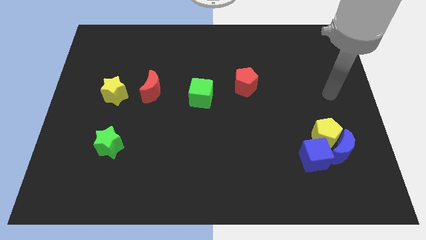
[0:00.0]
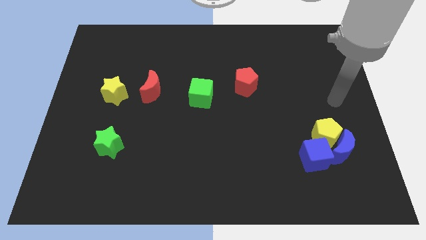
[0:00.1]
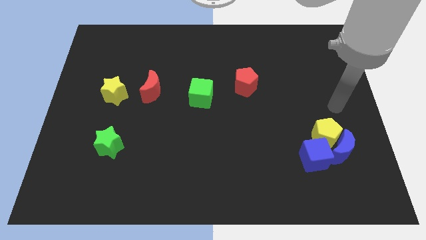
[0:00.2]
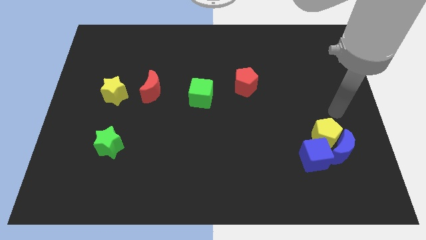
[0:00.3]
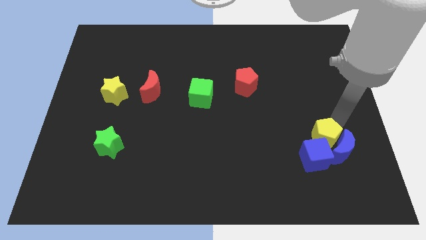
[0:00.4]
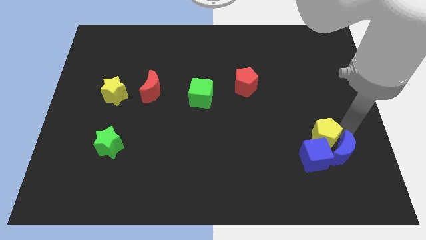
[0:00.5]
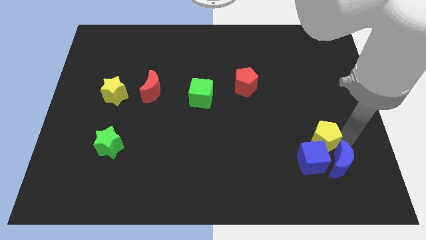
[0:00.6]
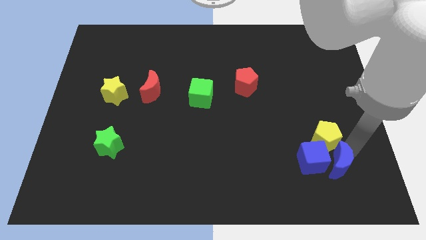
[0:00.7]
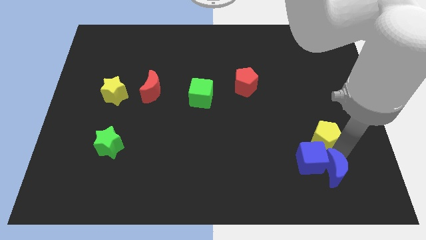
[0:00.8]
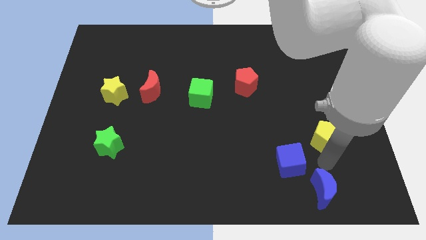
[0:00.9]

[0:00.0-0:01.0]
separate the yellow pentagon from the blue moon and blue cube

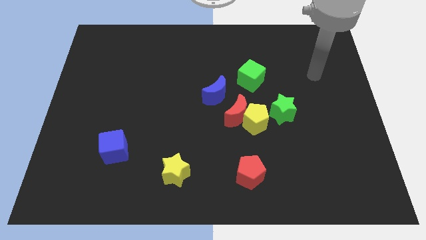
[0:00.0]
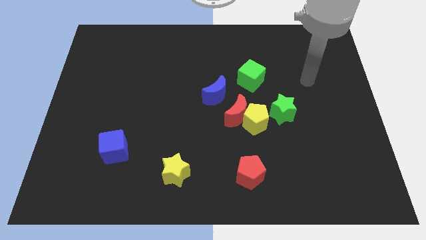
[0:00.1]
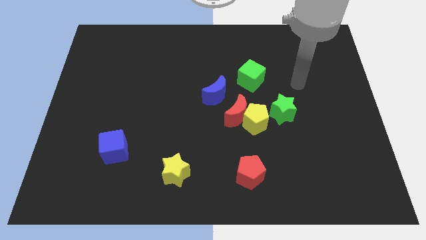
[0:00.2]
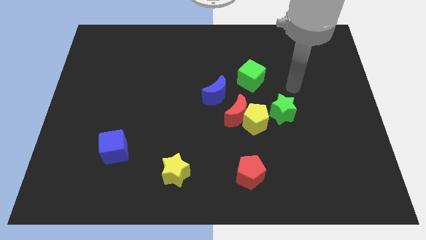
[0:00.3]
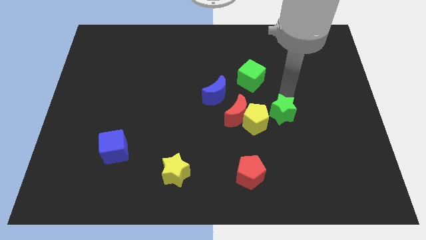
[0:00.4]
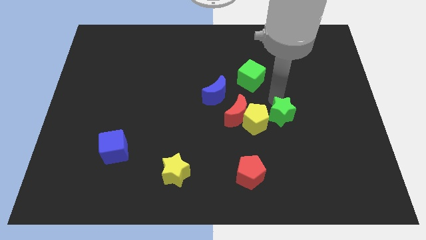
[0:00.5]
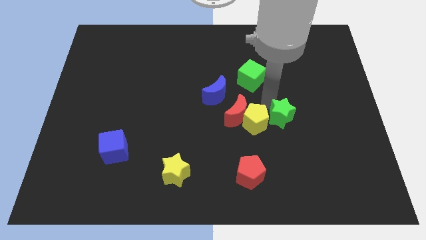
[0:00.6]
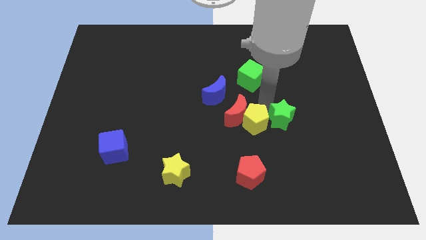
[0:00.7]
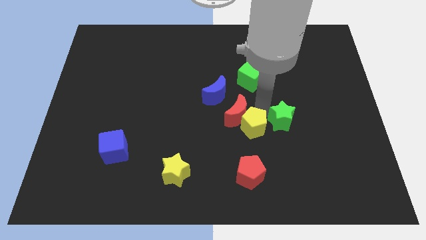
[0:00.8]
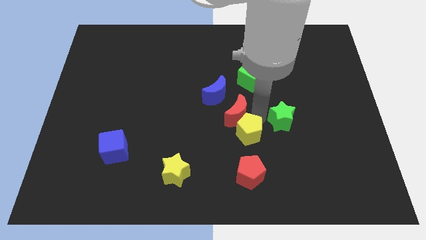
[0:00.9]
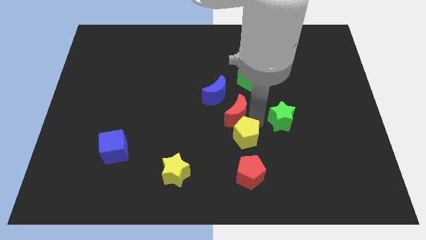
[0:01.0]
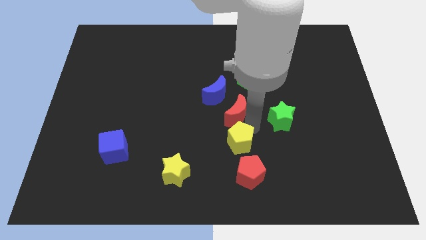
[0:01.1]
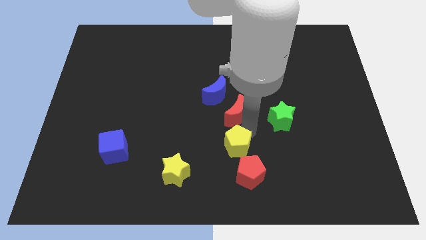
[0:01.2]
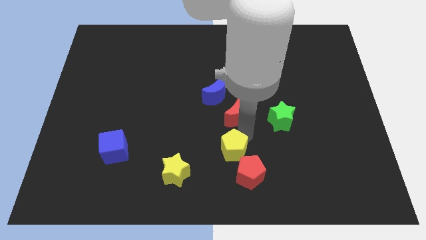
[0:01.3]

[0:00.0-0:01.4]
pull the yellow pentagon apart from the red moon and green star

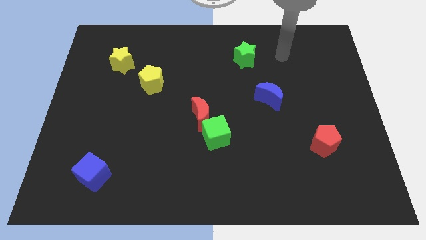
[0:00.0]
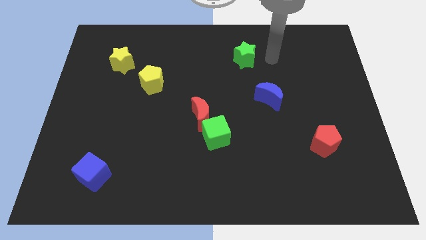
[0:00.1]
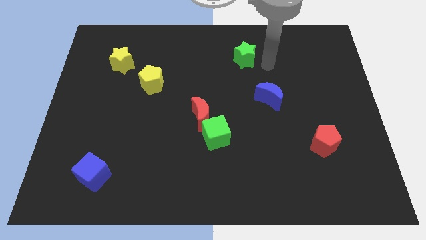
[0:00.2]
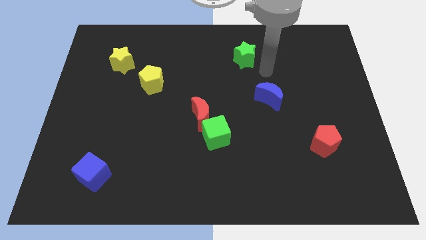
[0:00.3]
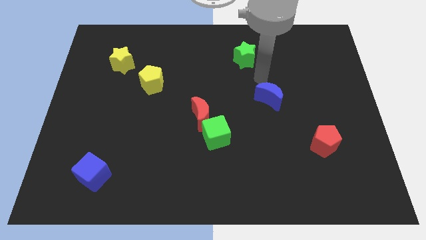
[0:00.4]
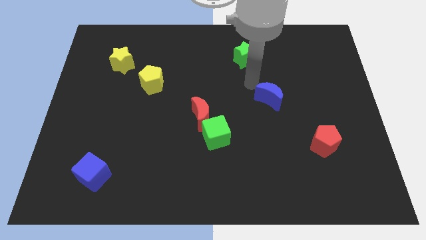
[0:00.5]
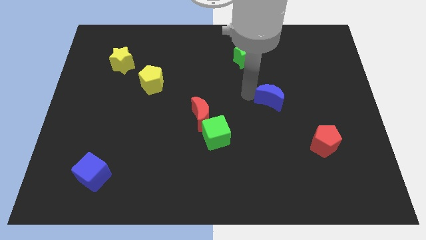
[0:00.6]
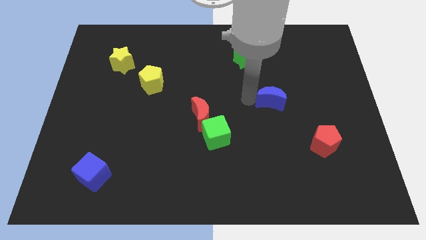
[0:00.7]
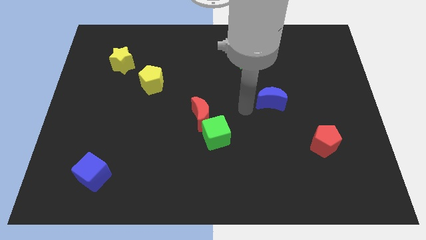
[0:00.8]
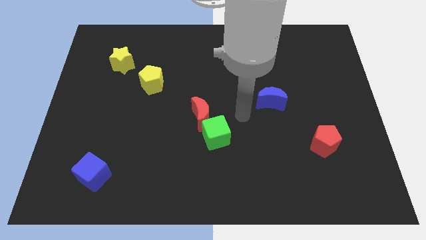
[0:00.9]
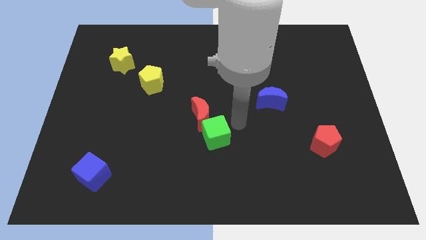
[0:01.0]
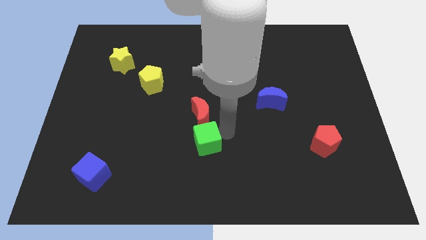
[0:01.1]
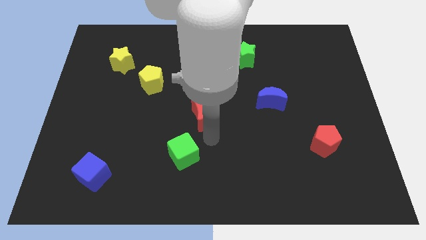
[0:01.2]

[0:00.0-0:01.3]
move the red moon away from the green cube

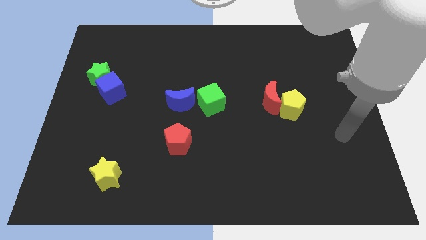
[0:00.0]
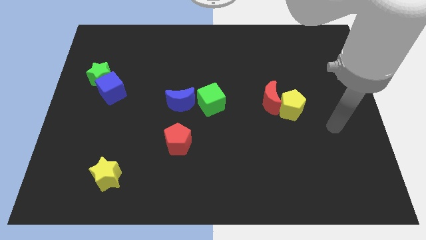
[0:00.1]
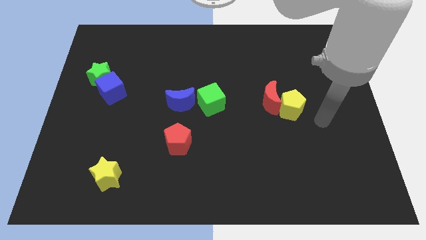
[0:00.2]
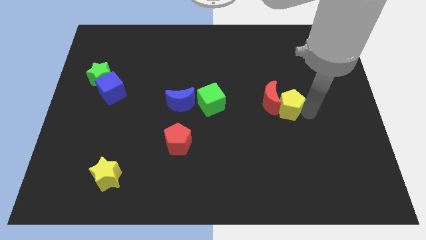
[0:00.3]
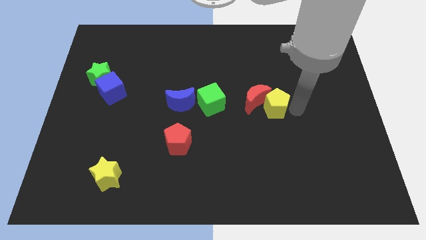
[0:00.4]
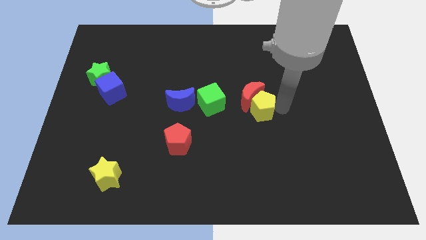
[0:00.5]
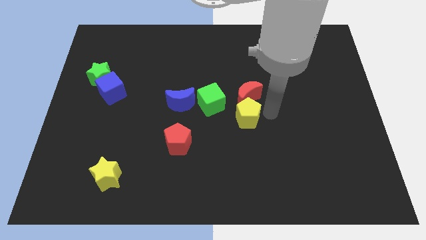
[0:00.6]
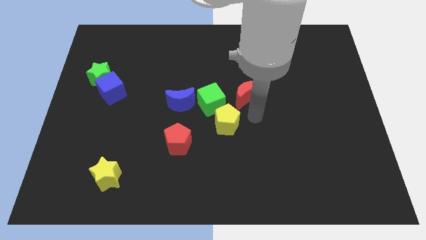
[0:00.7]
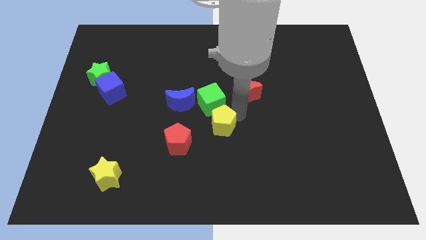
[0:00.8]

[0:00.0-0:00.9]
separate the red moon from the yellow pentagon

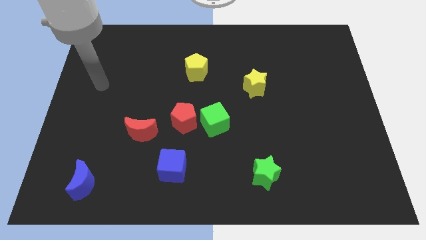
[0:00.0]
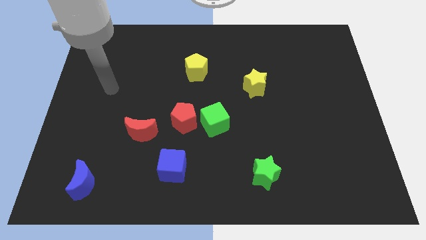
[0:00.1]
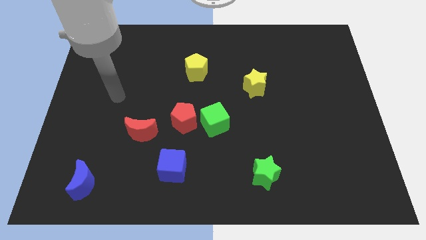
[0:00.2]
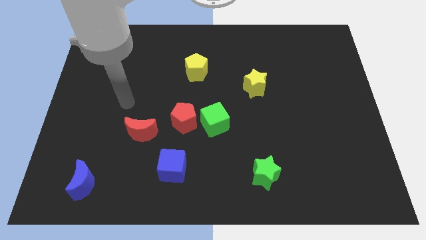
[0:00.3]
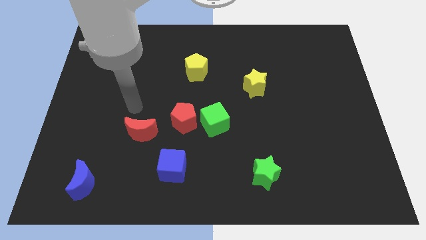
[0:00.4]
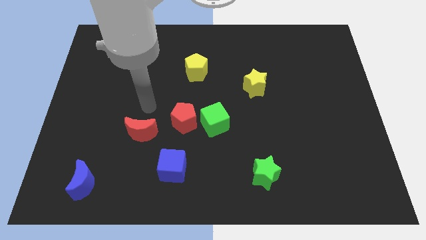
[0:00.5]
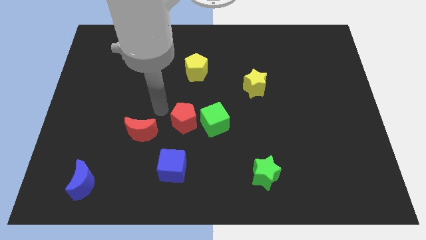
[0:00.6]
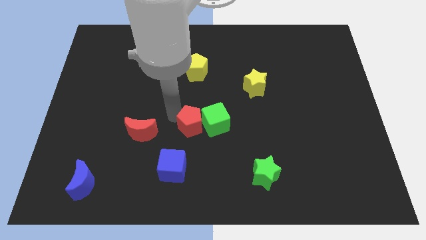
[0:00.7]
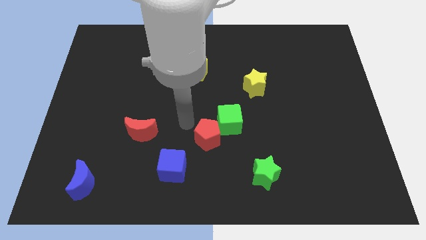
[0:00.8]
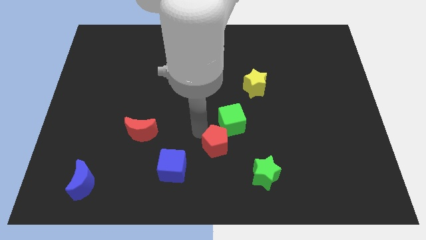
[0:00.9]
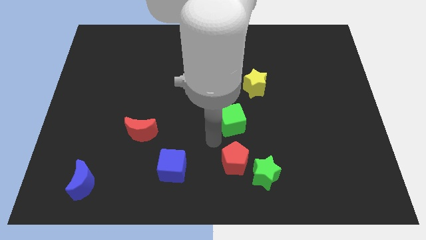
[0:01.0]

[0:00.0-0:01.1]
separate the green cube from the red pentagon

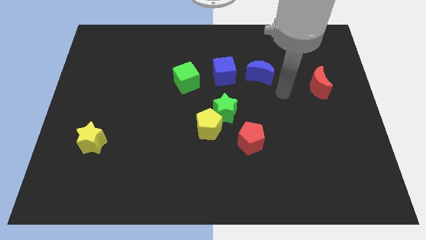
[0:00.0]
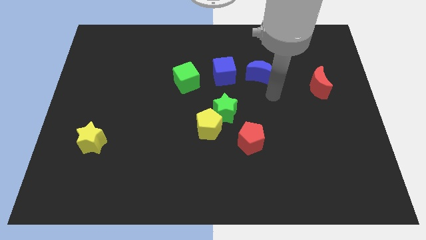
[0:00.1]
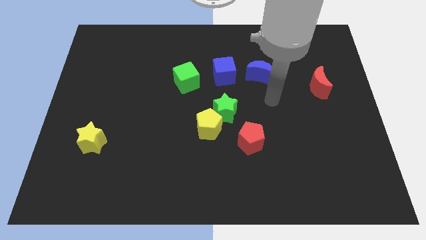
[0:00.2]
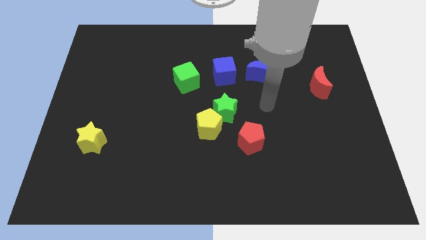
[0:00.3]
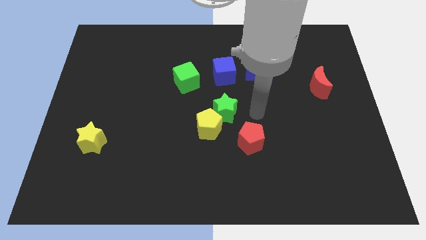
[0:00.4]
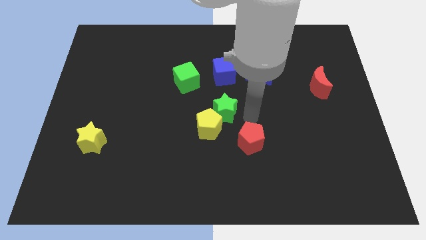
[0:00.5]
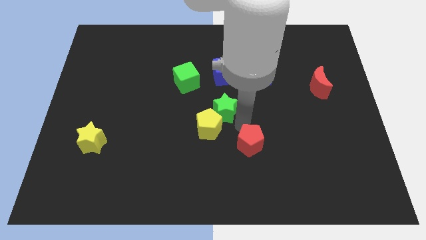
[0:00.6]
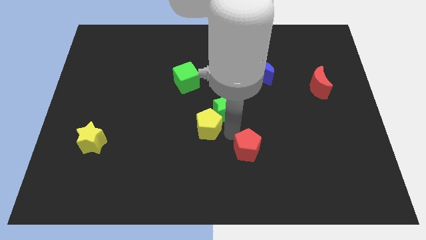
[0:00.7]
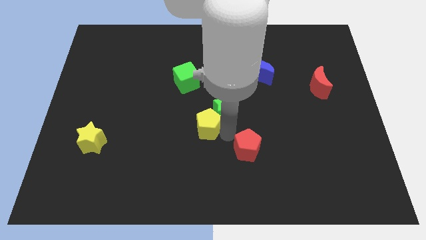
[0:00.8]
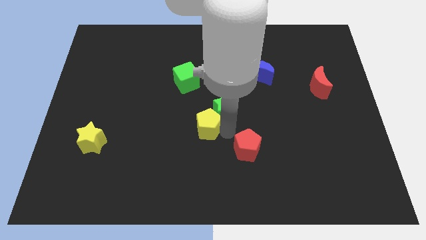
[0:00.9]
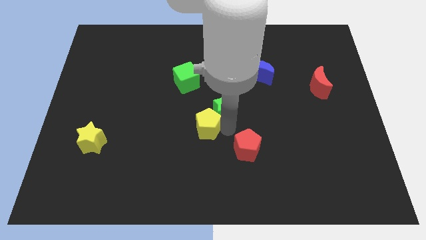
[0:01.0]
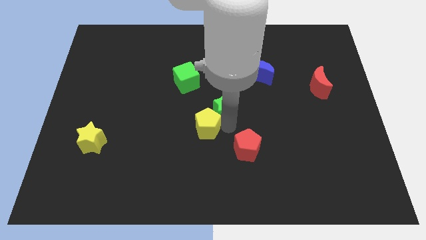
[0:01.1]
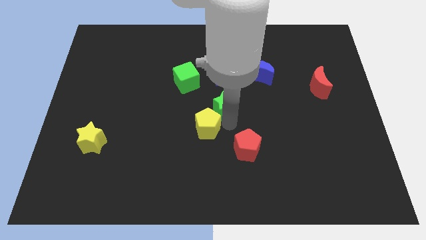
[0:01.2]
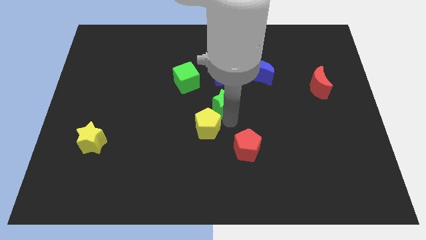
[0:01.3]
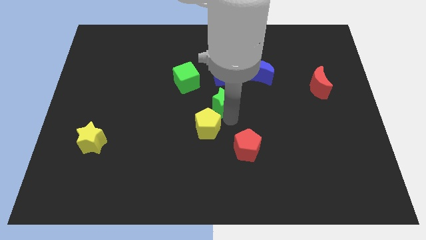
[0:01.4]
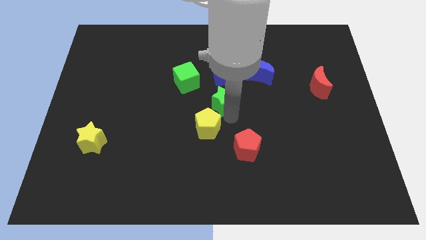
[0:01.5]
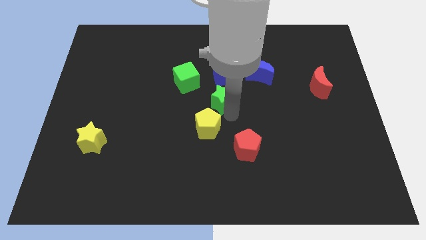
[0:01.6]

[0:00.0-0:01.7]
separate the green star from the yellow pentagon and red pentagon

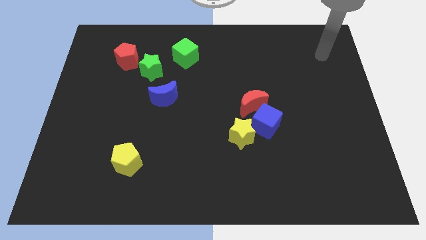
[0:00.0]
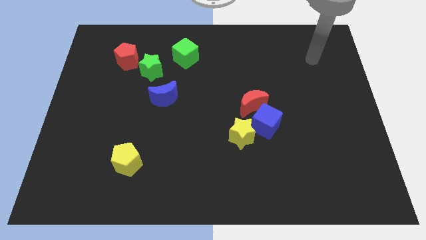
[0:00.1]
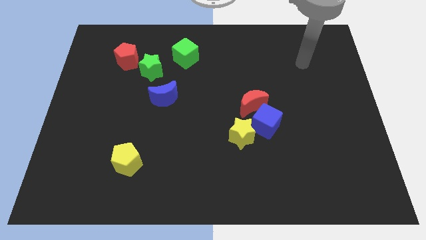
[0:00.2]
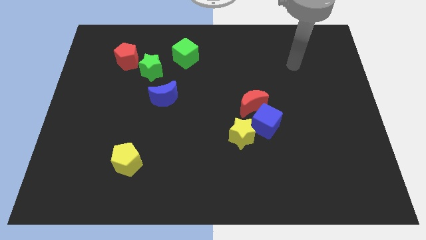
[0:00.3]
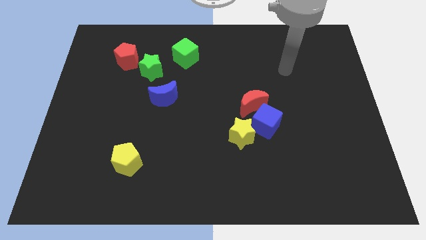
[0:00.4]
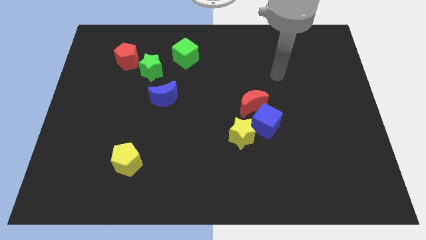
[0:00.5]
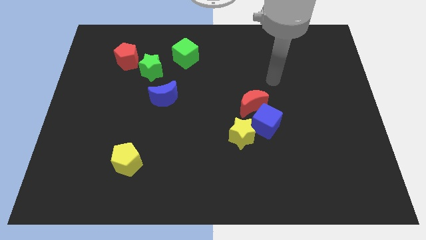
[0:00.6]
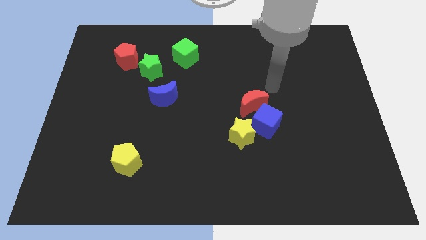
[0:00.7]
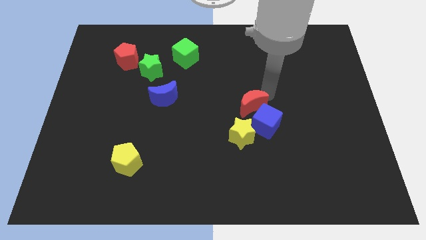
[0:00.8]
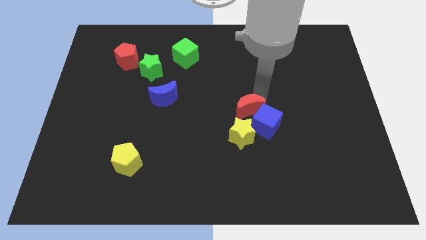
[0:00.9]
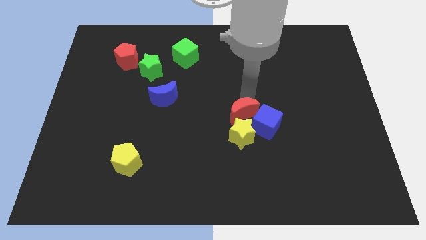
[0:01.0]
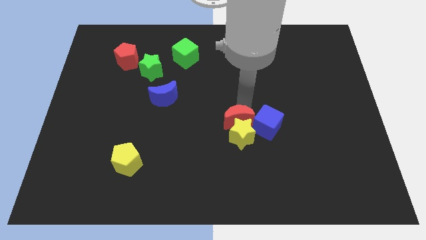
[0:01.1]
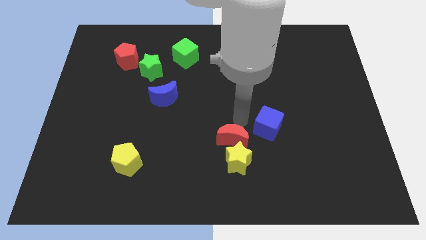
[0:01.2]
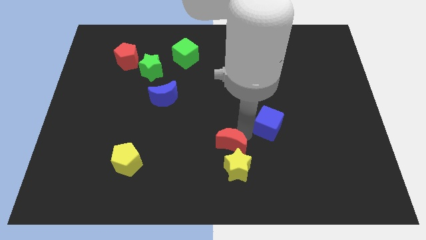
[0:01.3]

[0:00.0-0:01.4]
pull the blue cube apart from the red moon and yellow star

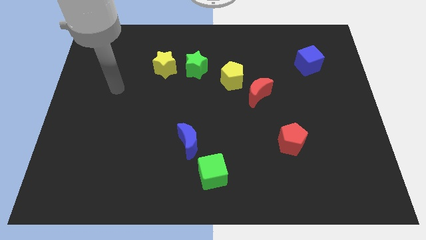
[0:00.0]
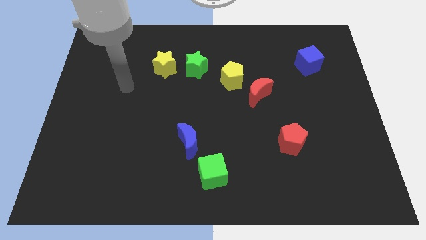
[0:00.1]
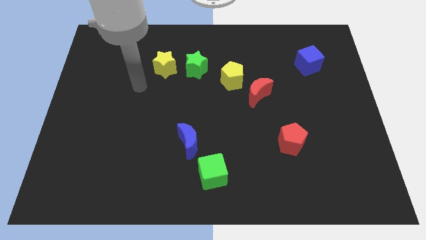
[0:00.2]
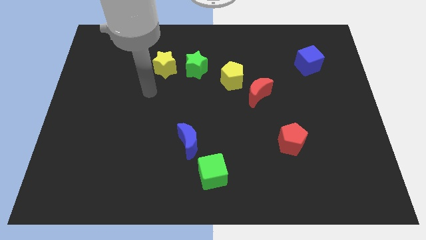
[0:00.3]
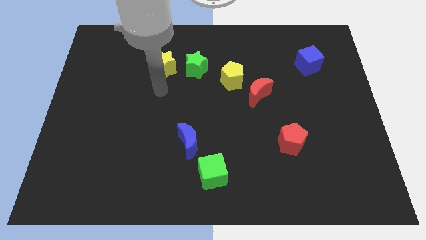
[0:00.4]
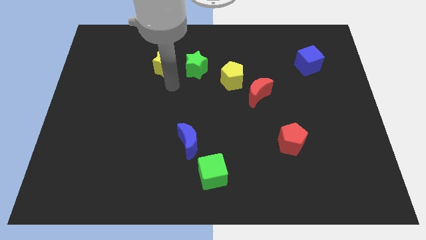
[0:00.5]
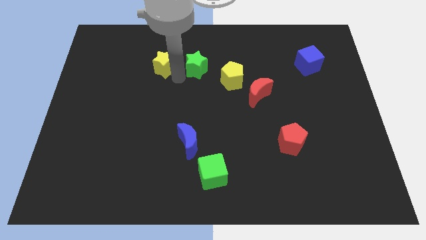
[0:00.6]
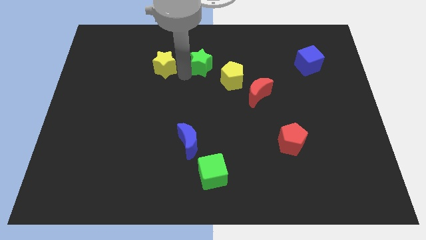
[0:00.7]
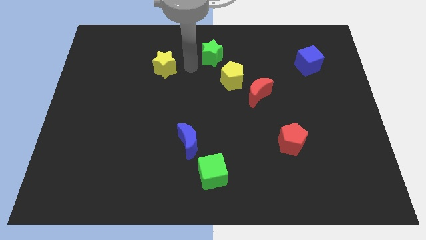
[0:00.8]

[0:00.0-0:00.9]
pull the yellow star apart from the green star
